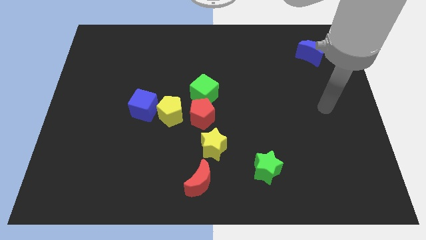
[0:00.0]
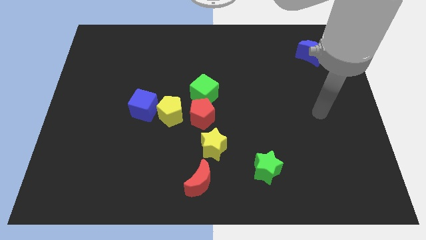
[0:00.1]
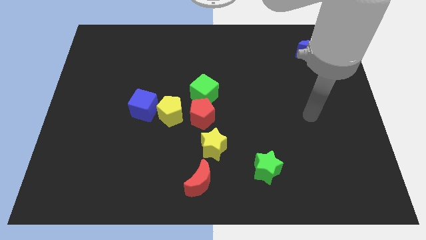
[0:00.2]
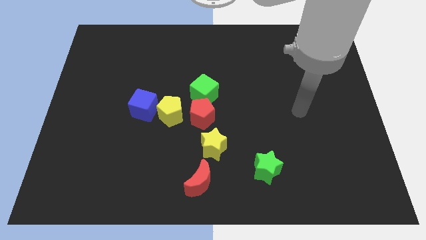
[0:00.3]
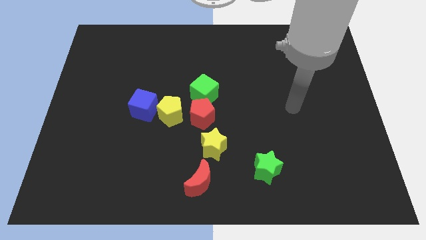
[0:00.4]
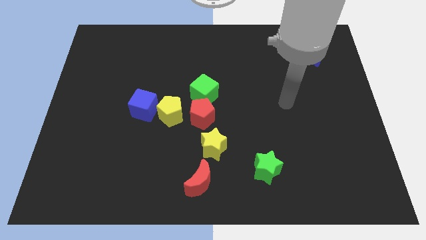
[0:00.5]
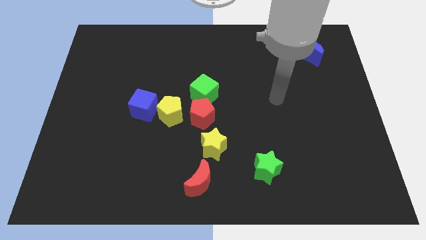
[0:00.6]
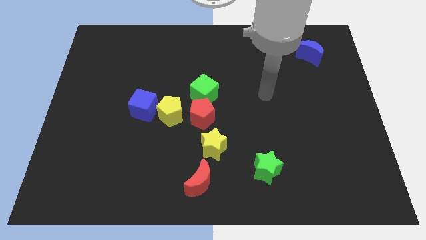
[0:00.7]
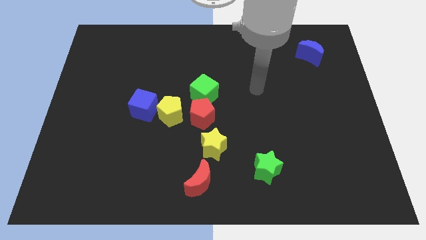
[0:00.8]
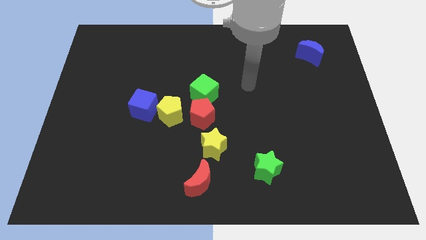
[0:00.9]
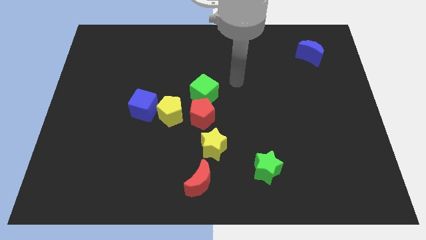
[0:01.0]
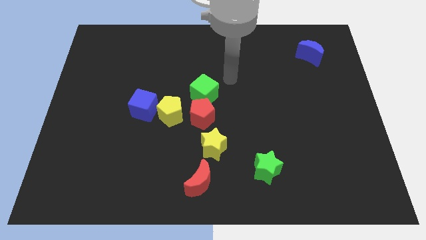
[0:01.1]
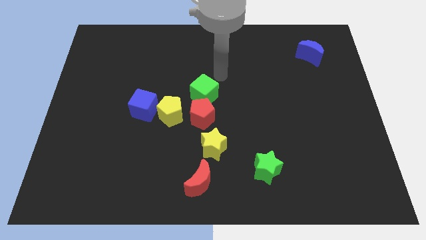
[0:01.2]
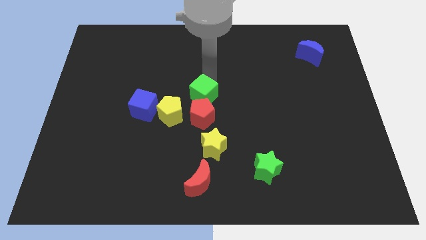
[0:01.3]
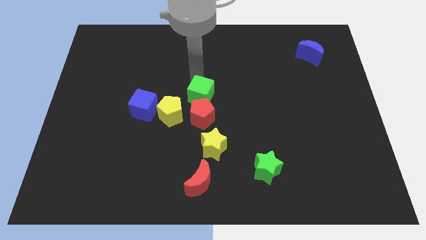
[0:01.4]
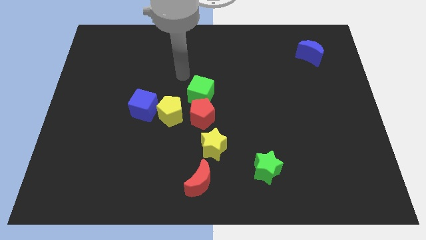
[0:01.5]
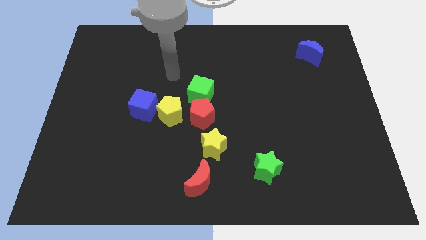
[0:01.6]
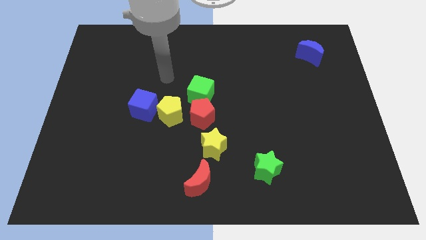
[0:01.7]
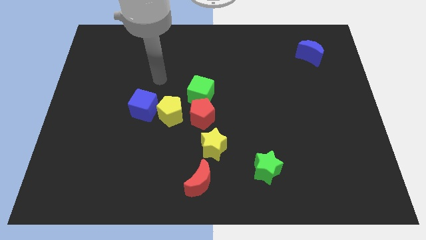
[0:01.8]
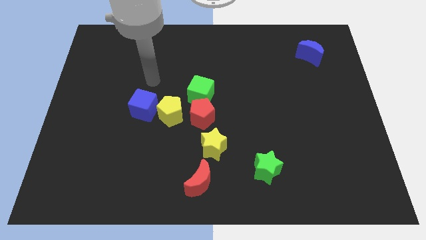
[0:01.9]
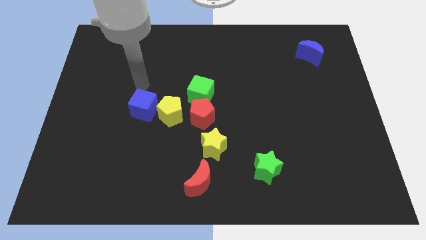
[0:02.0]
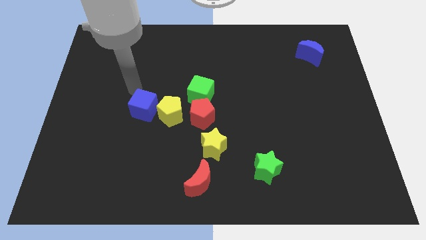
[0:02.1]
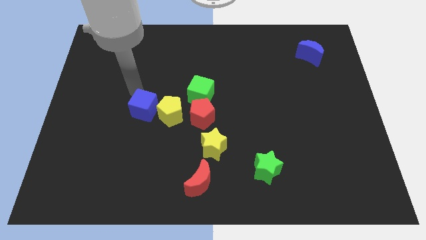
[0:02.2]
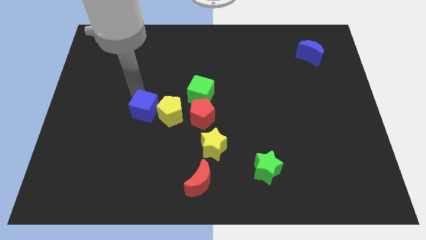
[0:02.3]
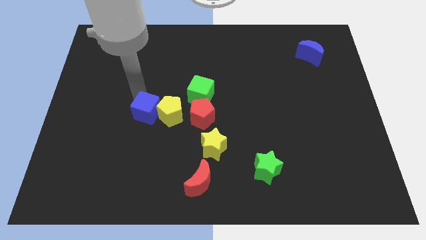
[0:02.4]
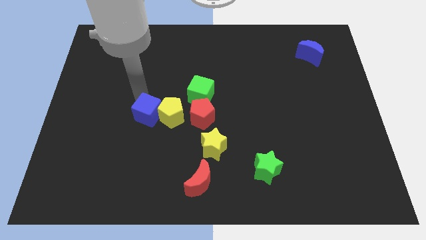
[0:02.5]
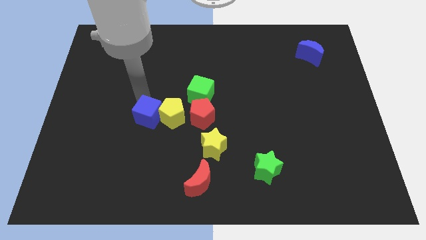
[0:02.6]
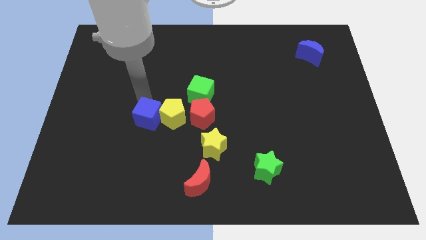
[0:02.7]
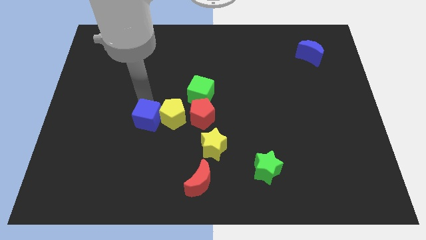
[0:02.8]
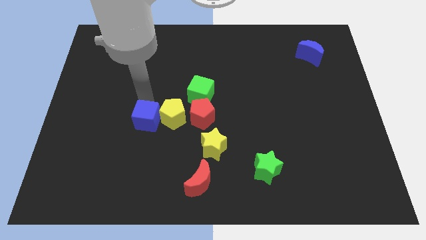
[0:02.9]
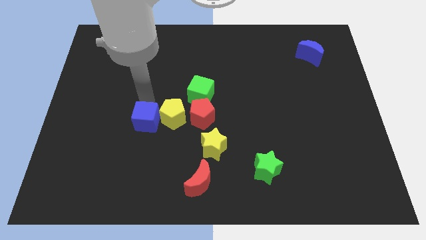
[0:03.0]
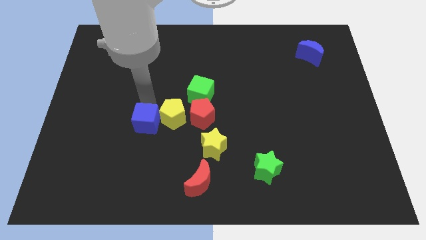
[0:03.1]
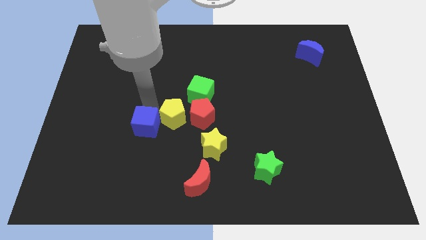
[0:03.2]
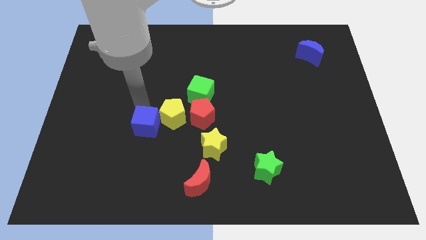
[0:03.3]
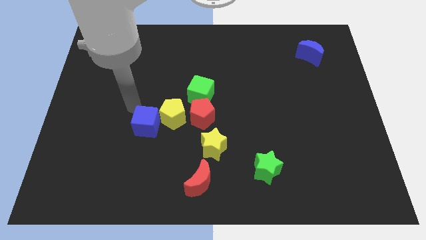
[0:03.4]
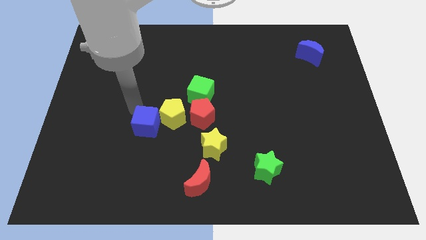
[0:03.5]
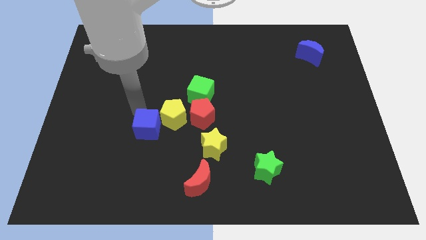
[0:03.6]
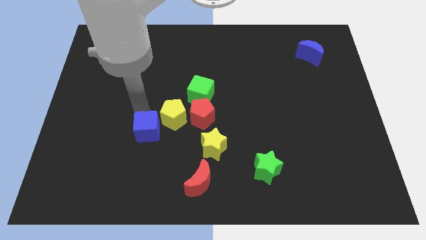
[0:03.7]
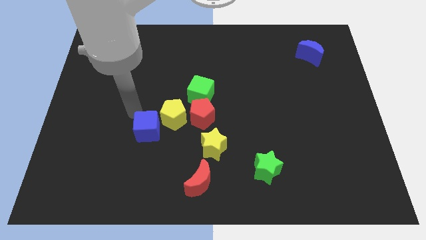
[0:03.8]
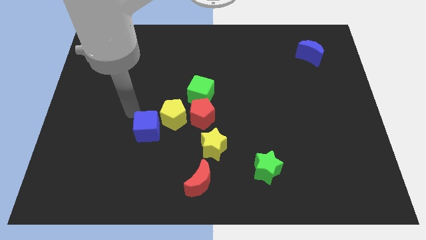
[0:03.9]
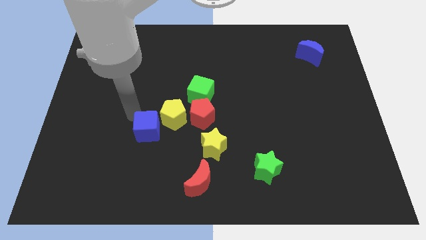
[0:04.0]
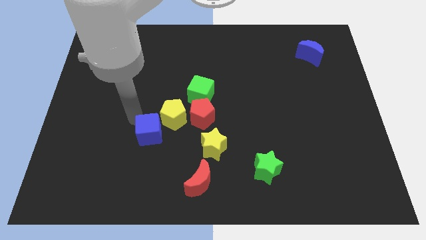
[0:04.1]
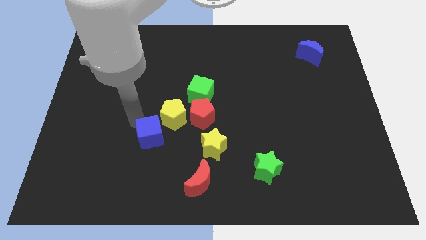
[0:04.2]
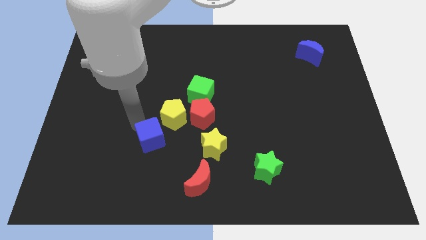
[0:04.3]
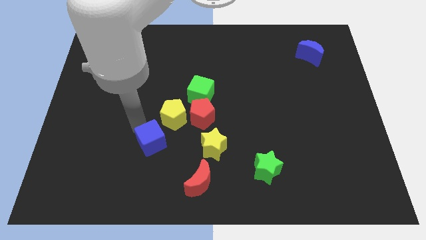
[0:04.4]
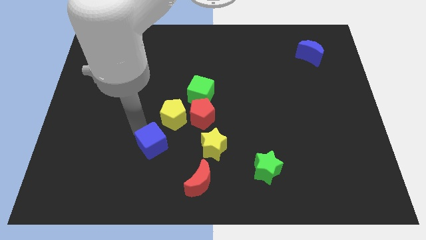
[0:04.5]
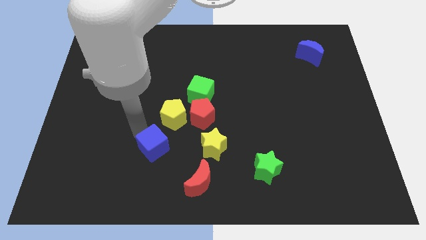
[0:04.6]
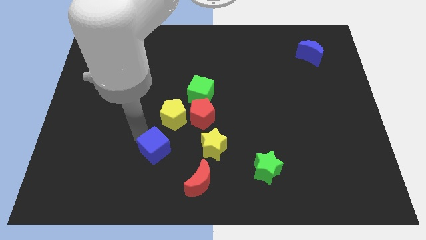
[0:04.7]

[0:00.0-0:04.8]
slide the blue cube to the top left side of the red moon

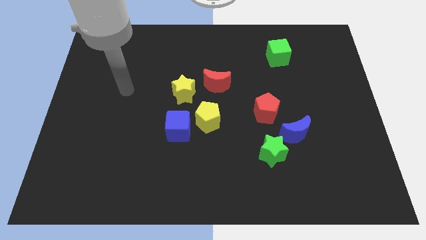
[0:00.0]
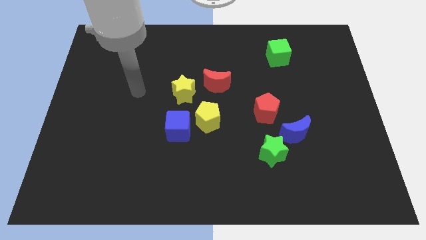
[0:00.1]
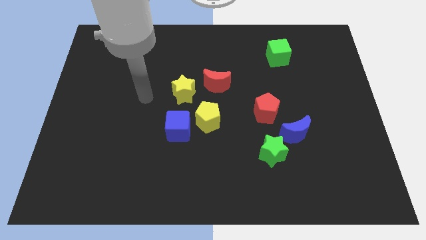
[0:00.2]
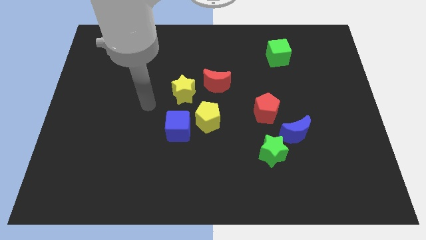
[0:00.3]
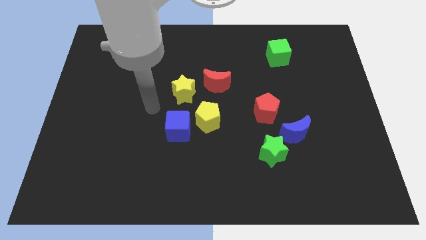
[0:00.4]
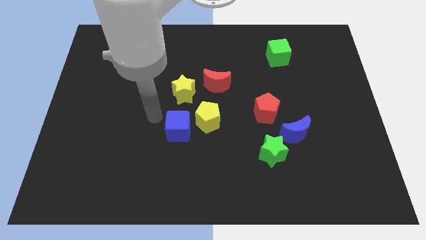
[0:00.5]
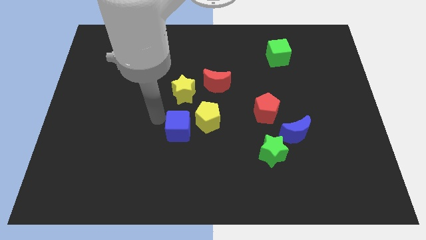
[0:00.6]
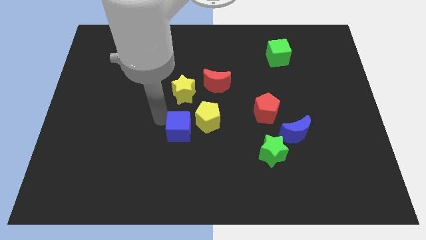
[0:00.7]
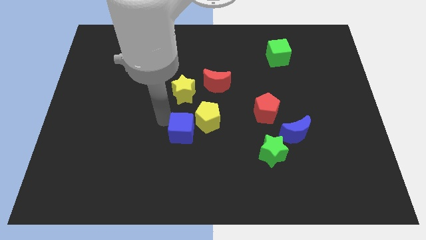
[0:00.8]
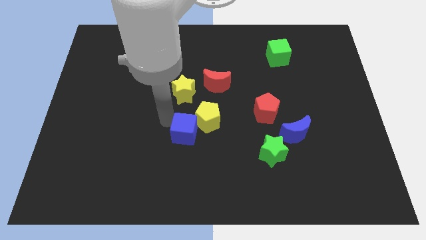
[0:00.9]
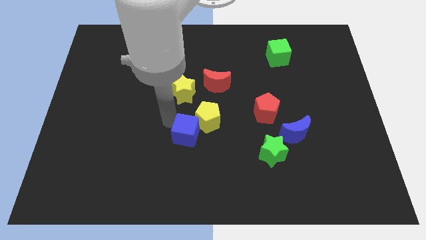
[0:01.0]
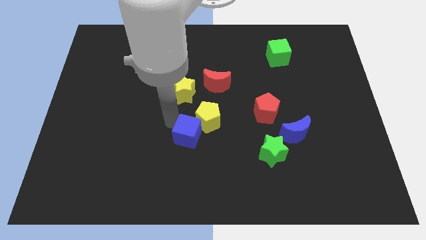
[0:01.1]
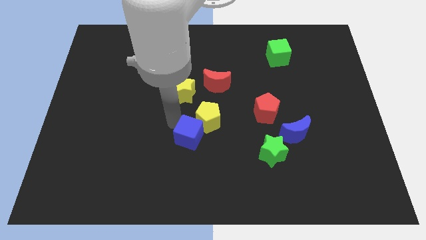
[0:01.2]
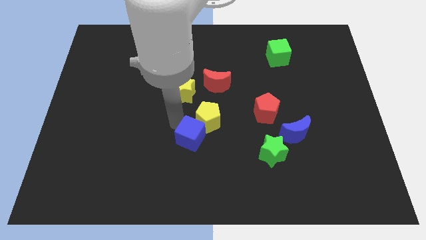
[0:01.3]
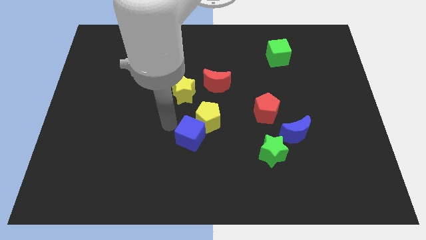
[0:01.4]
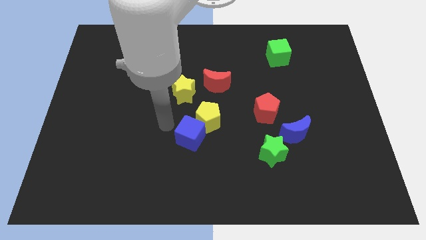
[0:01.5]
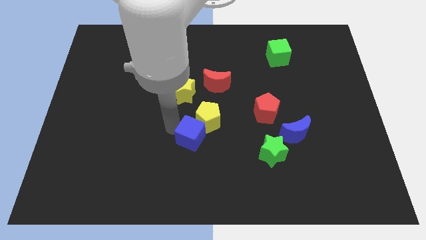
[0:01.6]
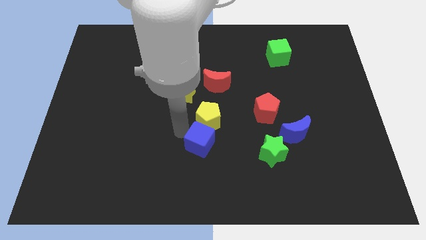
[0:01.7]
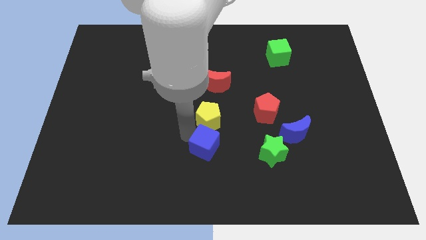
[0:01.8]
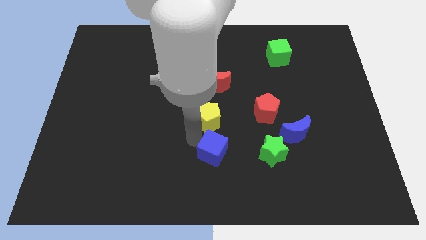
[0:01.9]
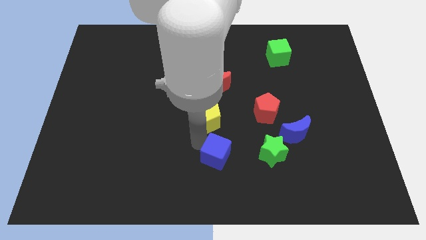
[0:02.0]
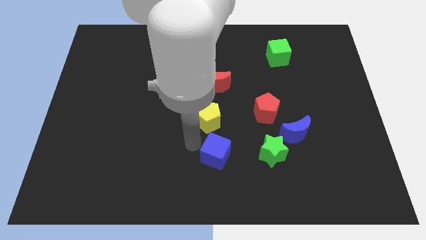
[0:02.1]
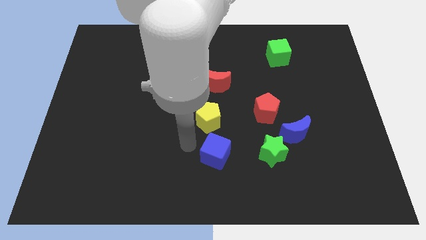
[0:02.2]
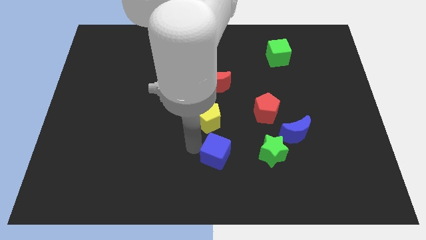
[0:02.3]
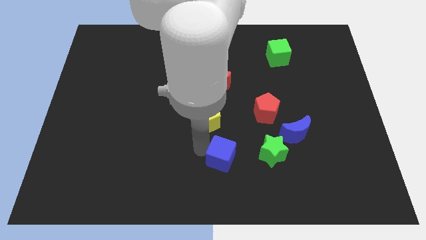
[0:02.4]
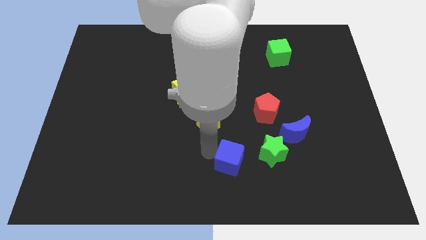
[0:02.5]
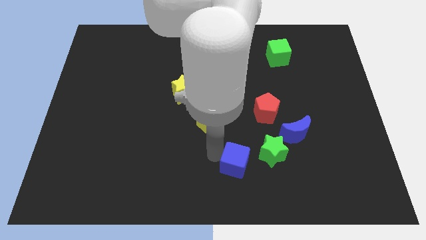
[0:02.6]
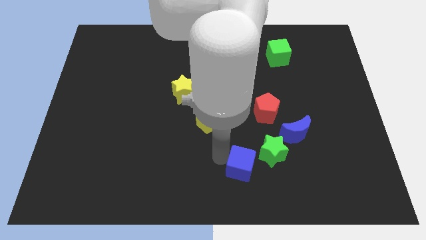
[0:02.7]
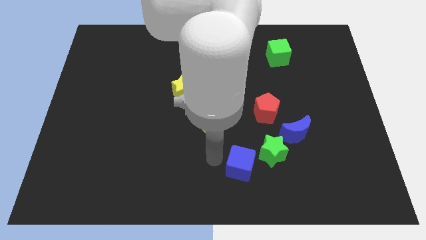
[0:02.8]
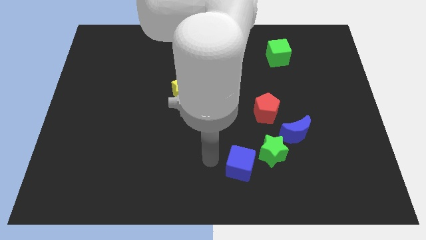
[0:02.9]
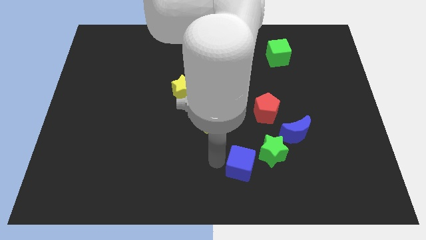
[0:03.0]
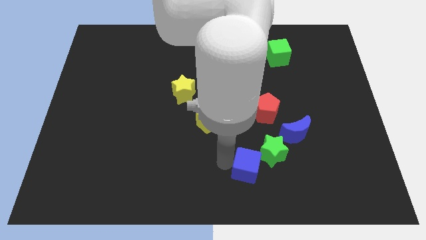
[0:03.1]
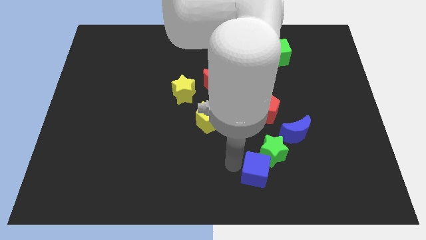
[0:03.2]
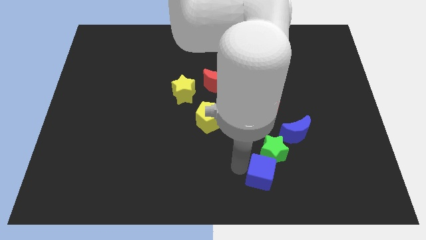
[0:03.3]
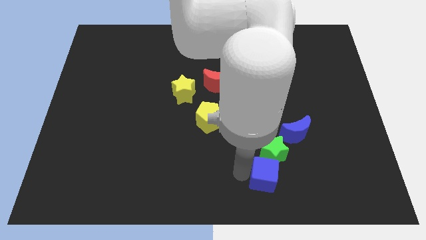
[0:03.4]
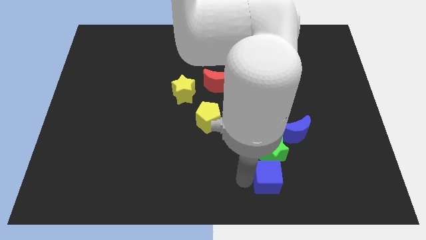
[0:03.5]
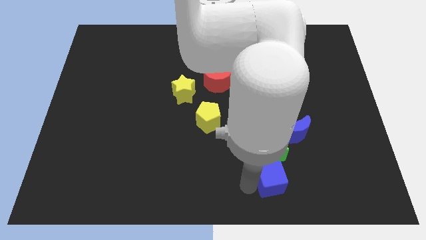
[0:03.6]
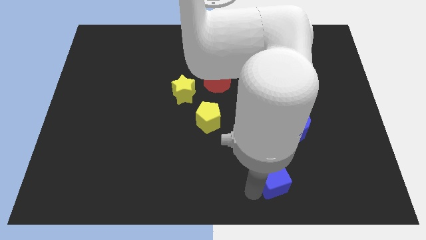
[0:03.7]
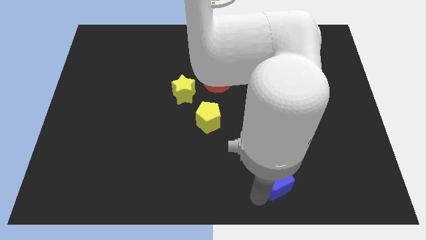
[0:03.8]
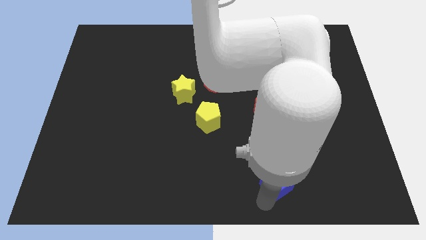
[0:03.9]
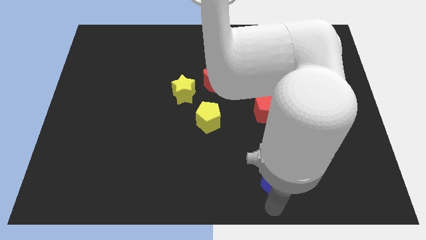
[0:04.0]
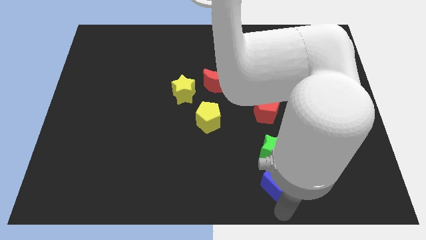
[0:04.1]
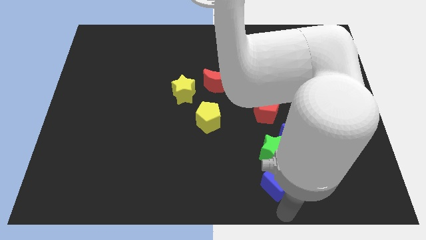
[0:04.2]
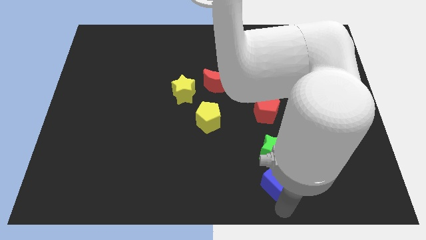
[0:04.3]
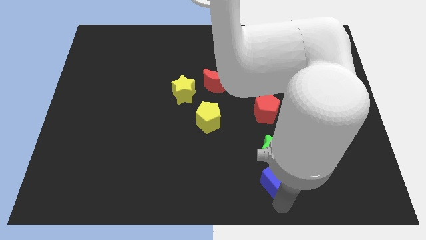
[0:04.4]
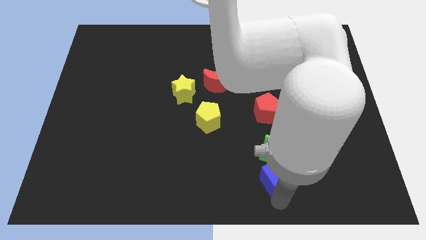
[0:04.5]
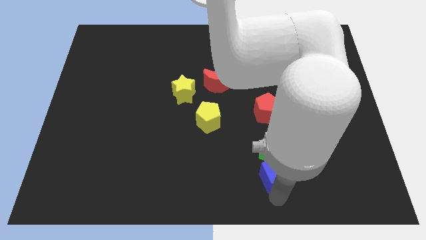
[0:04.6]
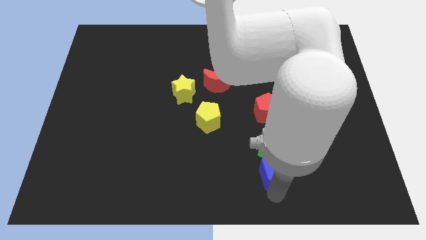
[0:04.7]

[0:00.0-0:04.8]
push the blue cube below the red pentagon
